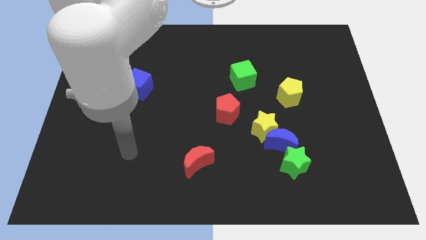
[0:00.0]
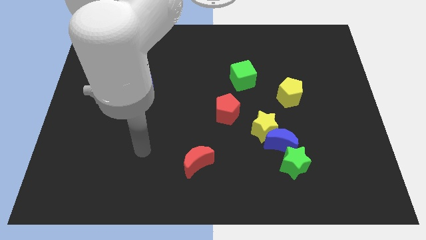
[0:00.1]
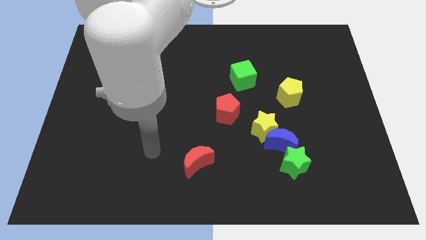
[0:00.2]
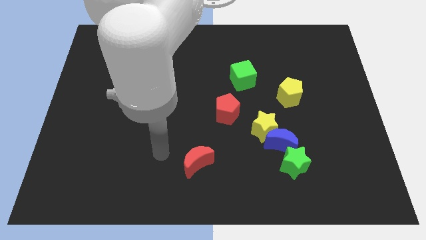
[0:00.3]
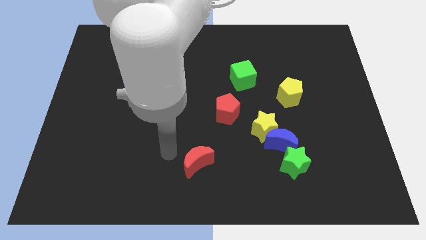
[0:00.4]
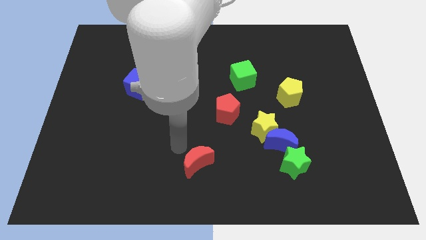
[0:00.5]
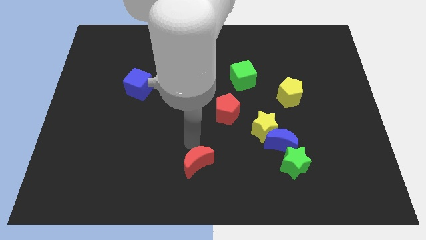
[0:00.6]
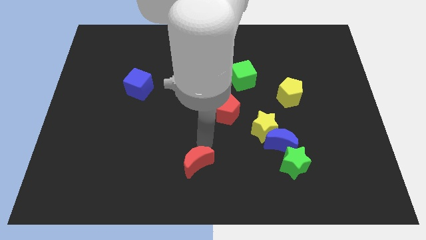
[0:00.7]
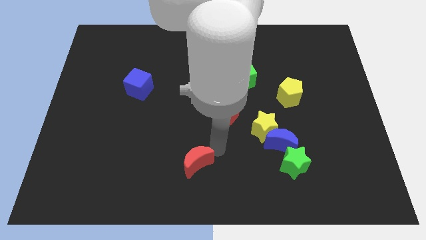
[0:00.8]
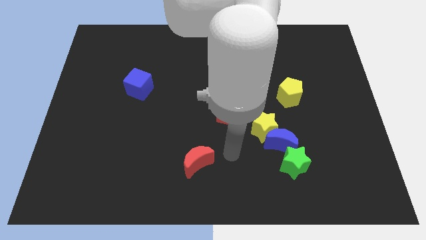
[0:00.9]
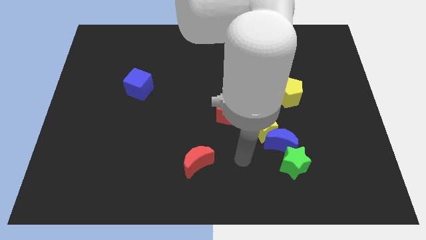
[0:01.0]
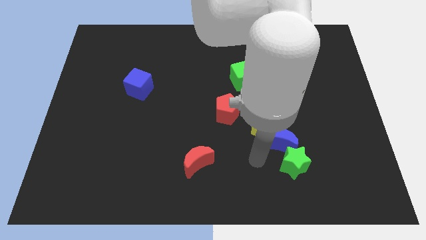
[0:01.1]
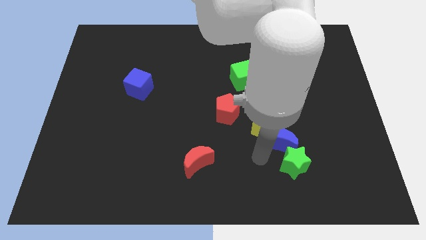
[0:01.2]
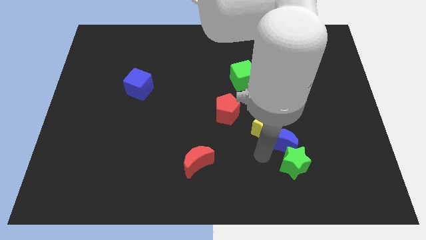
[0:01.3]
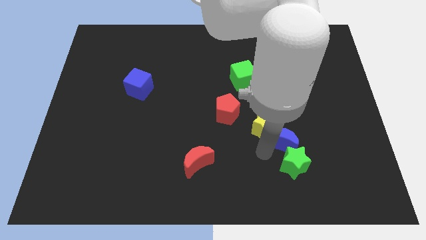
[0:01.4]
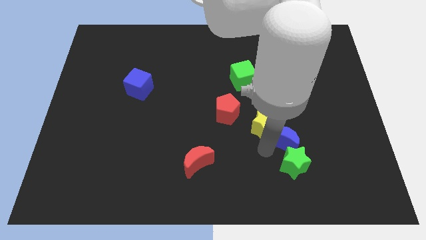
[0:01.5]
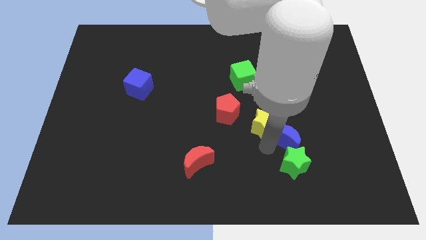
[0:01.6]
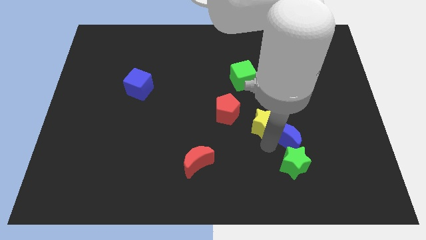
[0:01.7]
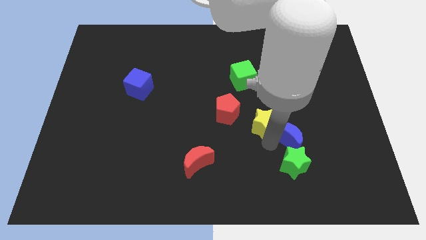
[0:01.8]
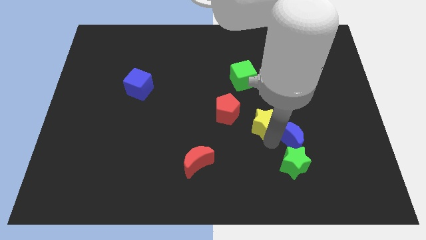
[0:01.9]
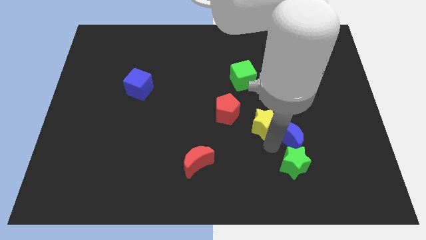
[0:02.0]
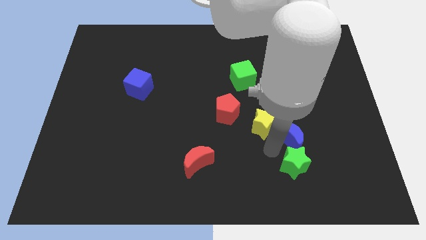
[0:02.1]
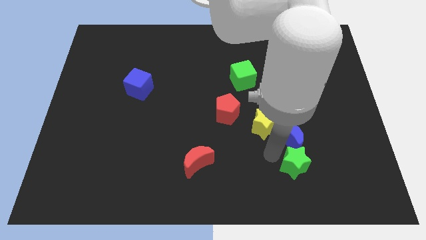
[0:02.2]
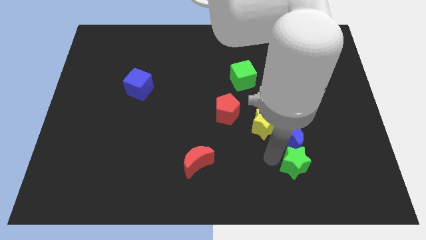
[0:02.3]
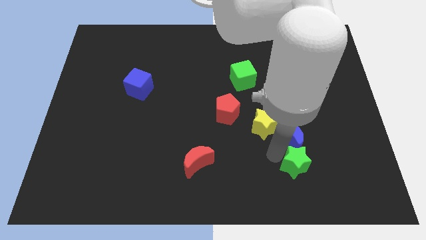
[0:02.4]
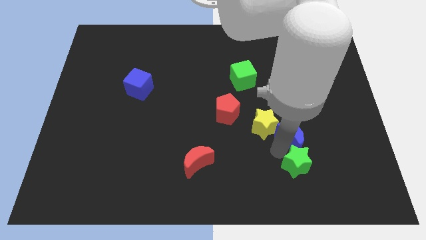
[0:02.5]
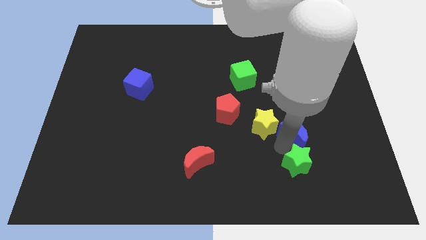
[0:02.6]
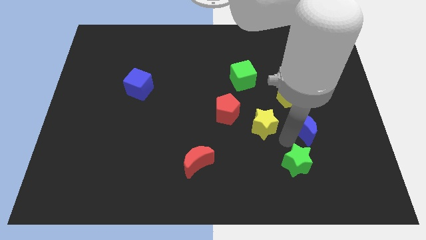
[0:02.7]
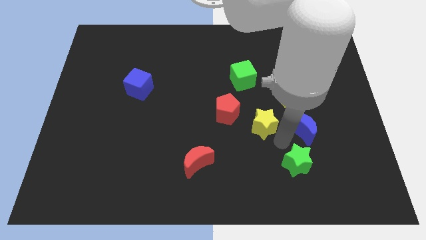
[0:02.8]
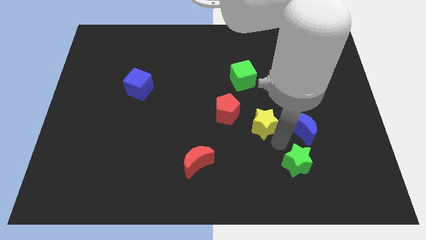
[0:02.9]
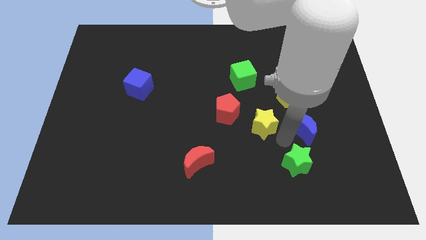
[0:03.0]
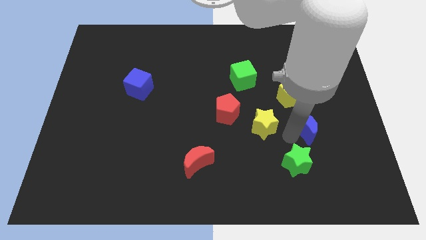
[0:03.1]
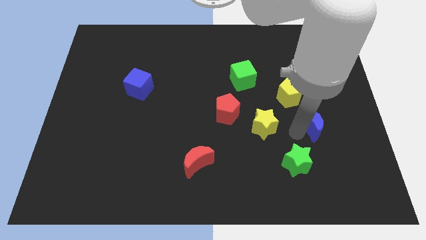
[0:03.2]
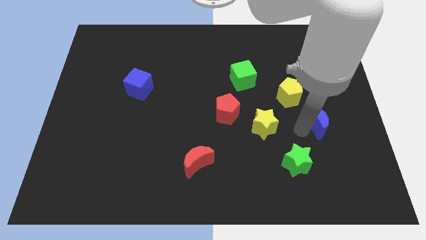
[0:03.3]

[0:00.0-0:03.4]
move the blue moon away from the yellow star and green star

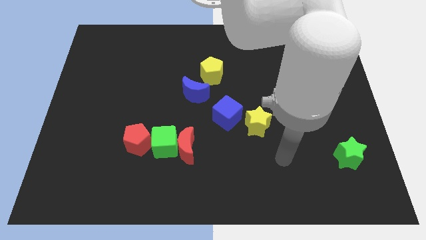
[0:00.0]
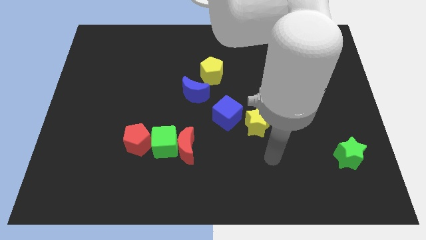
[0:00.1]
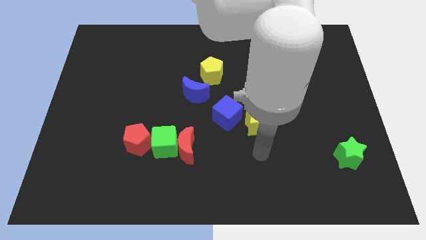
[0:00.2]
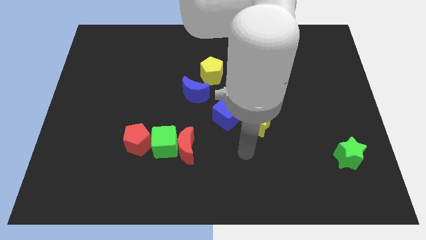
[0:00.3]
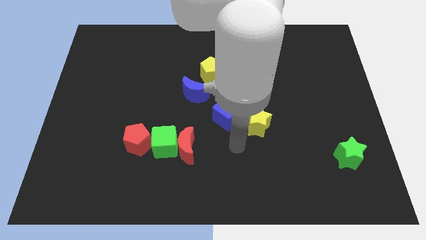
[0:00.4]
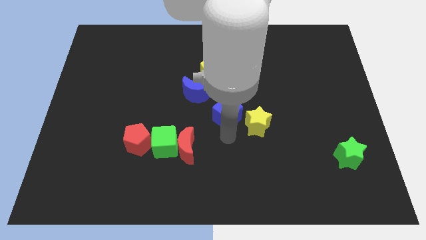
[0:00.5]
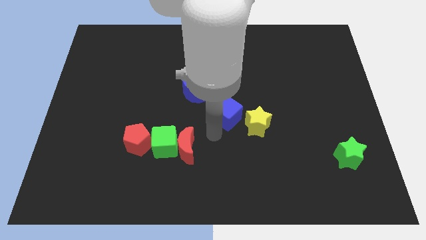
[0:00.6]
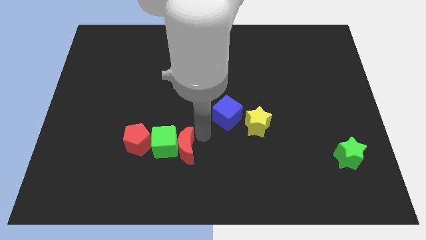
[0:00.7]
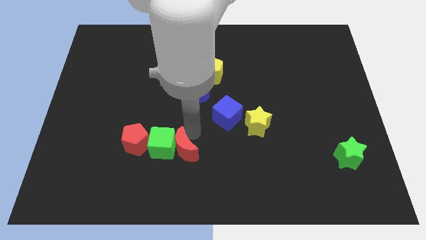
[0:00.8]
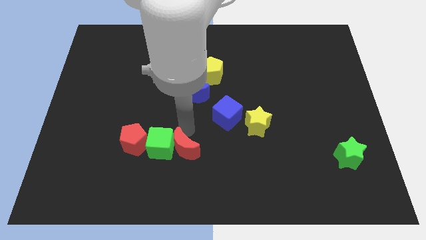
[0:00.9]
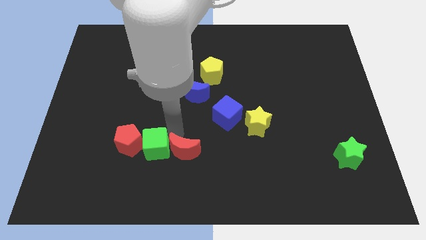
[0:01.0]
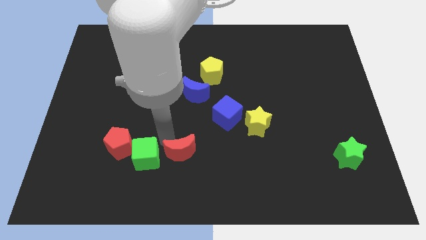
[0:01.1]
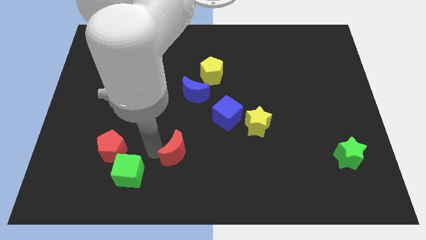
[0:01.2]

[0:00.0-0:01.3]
separate the red moon from the green cube

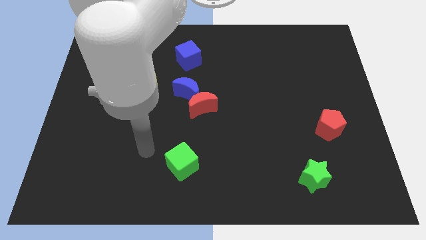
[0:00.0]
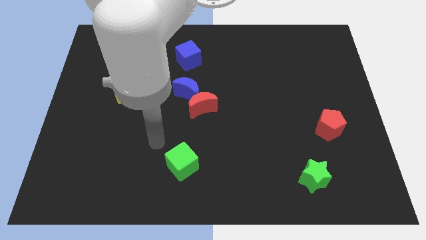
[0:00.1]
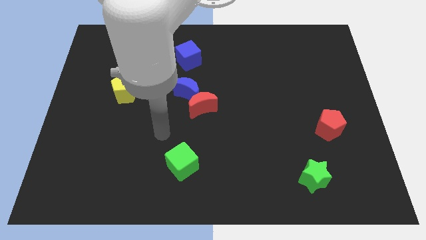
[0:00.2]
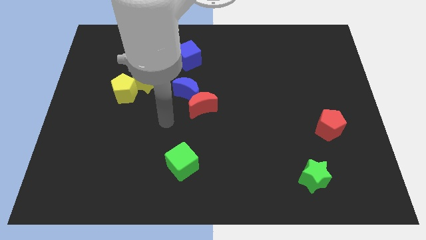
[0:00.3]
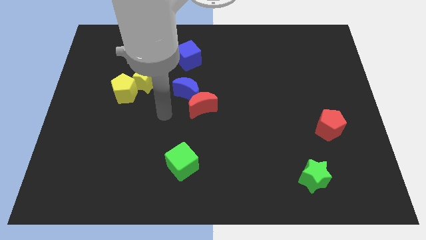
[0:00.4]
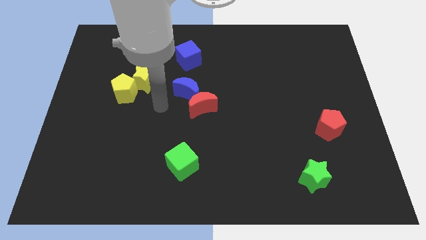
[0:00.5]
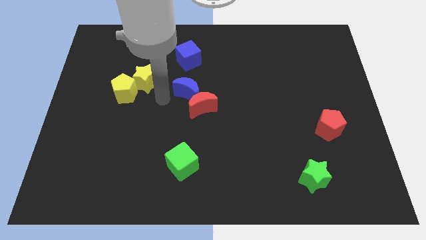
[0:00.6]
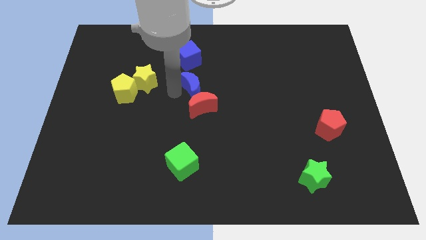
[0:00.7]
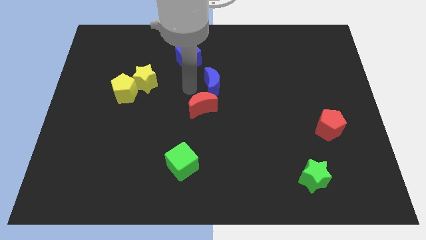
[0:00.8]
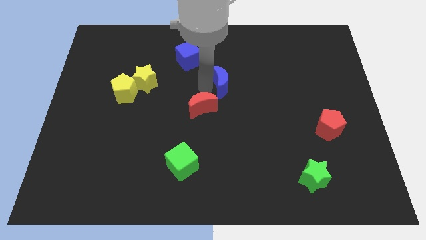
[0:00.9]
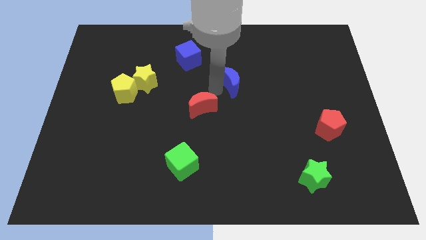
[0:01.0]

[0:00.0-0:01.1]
move the red moon away from the blue moon

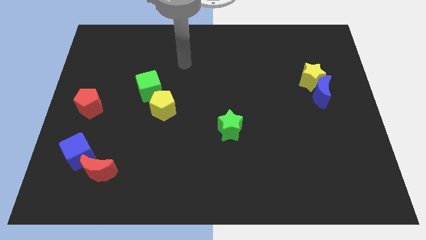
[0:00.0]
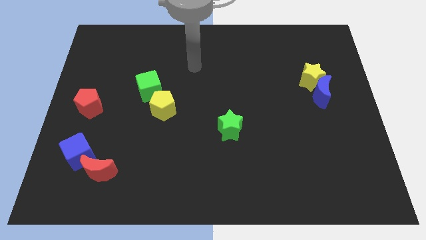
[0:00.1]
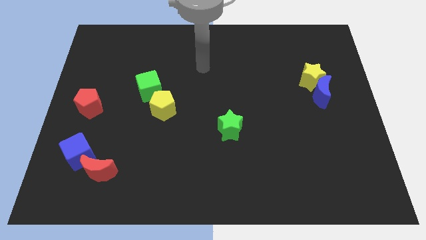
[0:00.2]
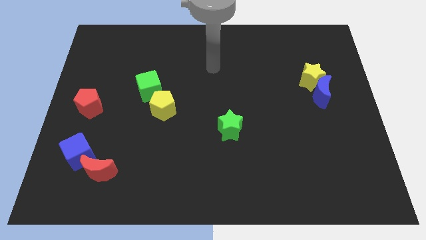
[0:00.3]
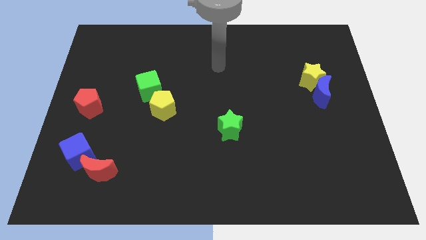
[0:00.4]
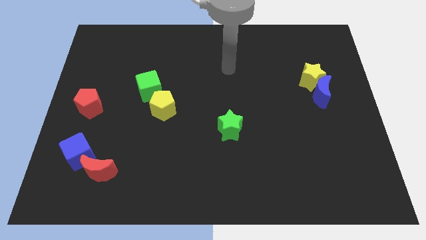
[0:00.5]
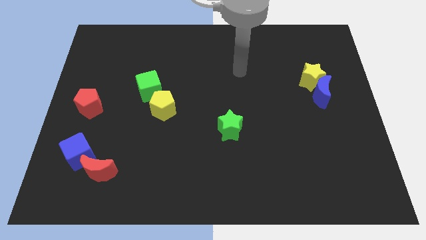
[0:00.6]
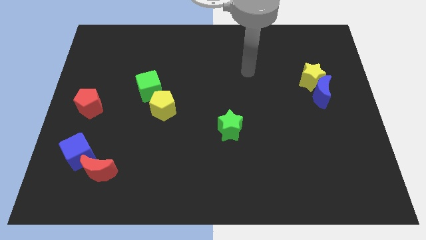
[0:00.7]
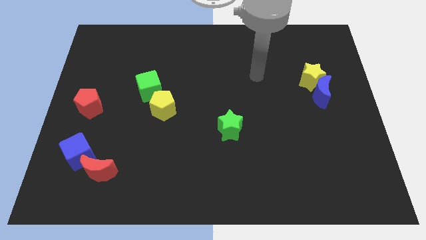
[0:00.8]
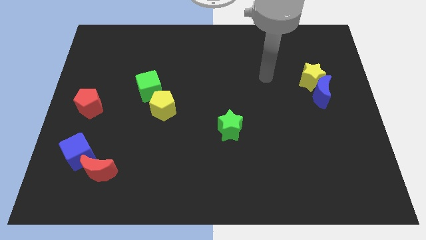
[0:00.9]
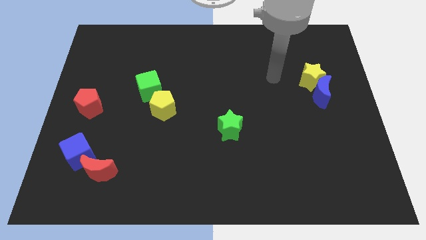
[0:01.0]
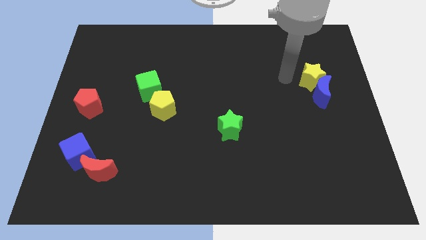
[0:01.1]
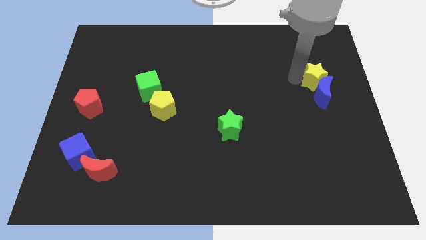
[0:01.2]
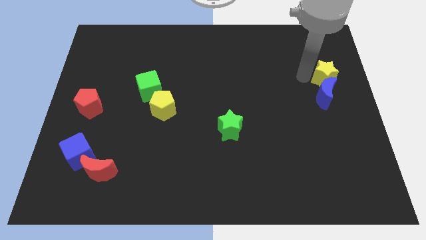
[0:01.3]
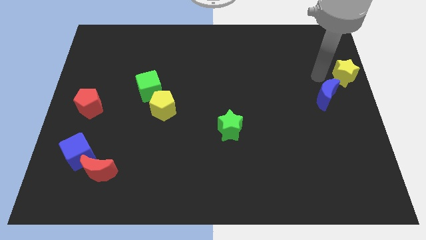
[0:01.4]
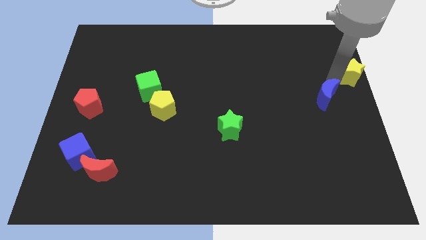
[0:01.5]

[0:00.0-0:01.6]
pull the blue moon apart from the yellow star

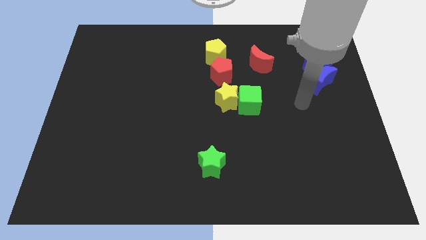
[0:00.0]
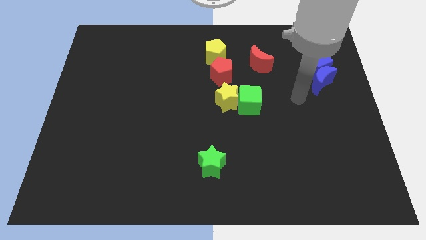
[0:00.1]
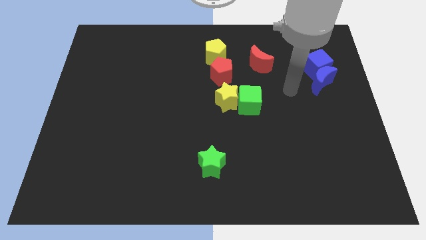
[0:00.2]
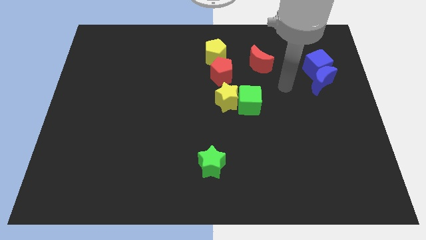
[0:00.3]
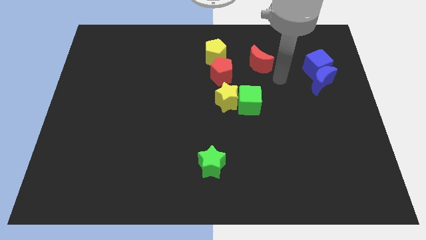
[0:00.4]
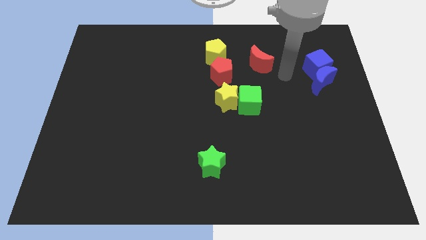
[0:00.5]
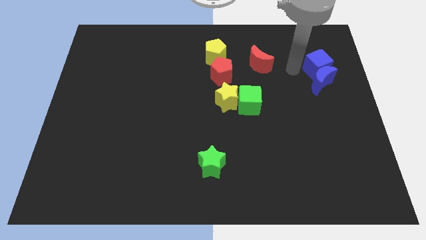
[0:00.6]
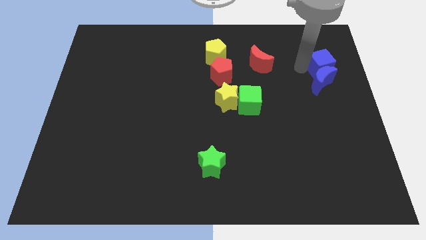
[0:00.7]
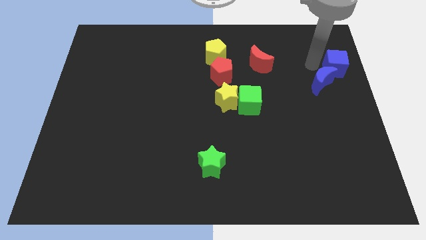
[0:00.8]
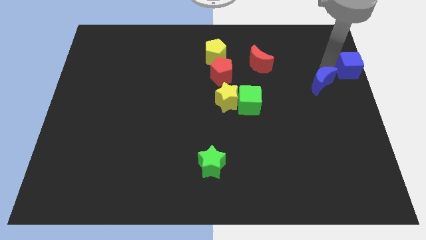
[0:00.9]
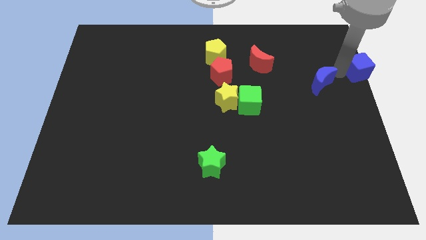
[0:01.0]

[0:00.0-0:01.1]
separate the blue moon from the blue cube

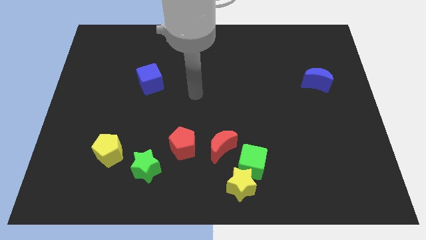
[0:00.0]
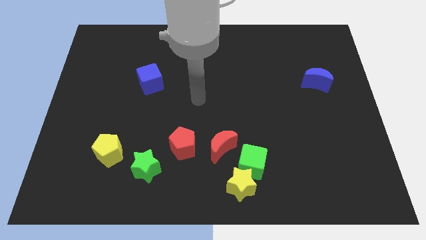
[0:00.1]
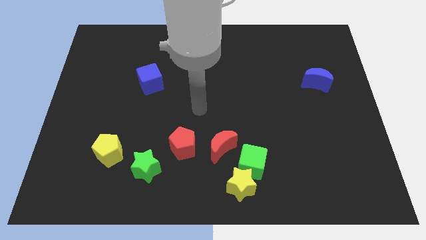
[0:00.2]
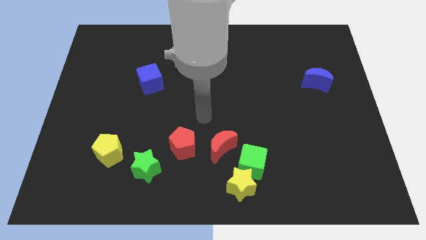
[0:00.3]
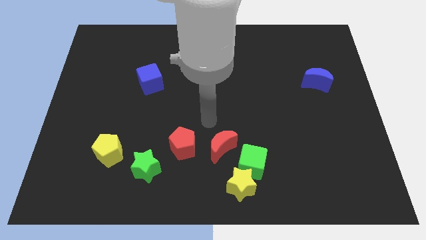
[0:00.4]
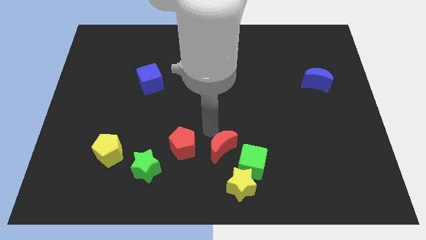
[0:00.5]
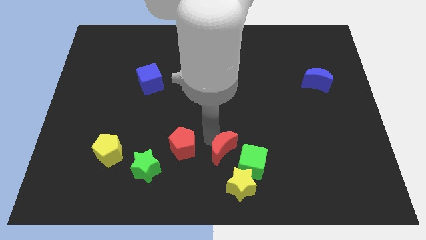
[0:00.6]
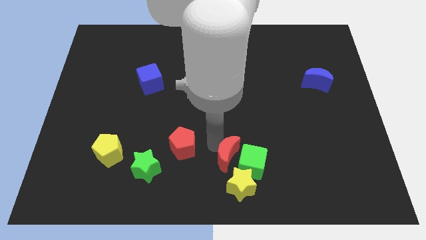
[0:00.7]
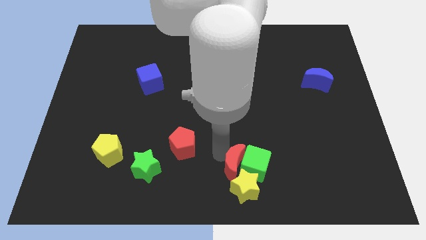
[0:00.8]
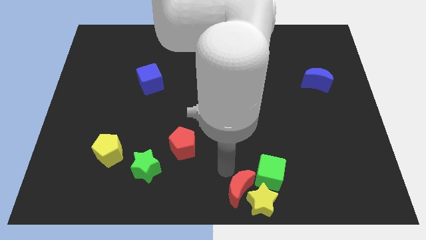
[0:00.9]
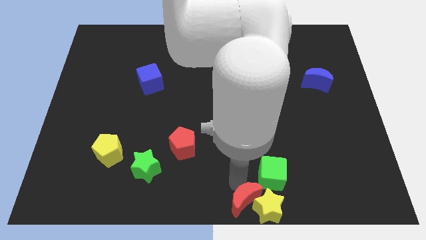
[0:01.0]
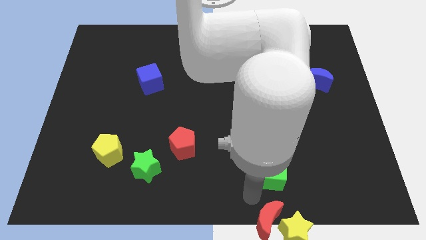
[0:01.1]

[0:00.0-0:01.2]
pull the green cube apart from the yellow star and red moon
